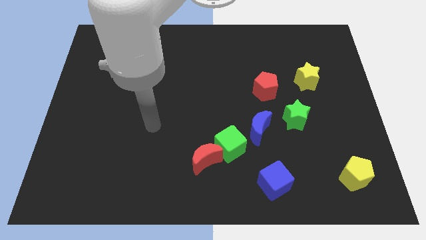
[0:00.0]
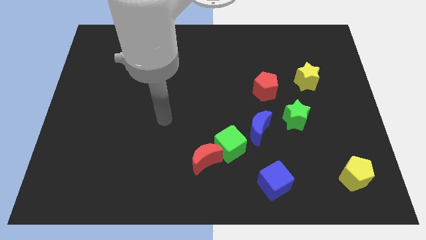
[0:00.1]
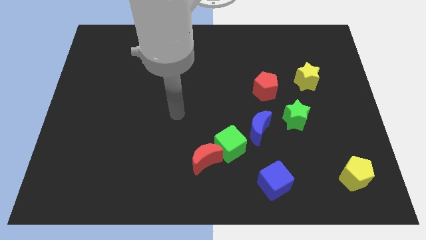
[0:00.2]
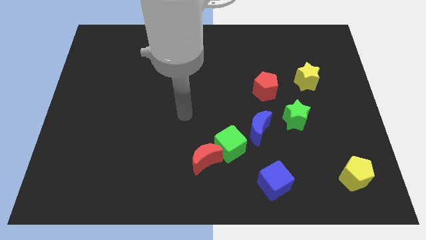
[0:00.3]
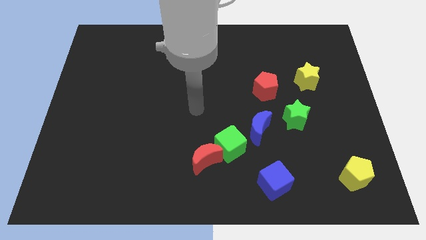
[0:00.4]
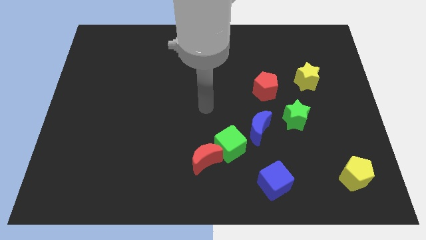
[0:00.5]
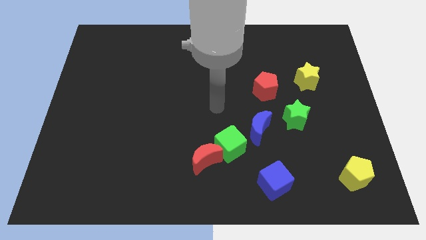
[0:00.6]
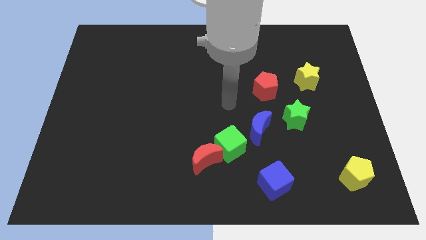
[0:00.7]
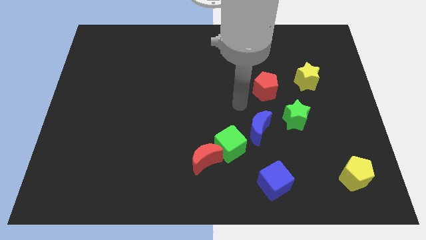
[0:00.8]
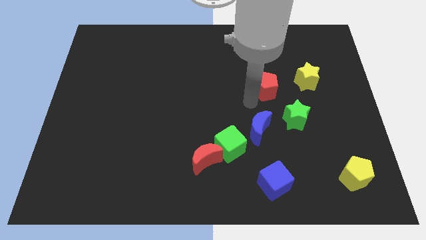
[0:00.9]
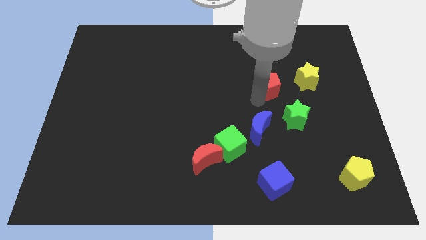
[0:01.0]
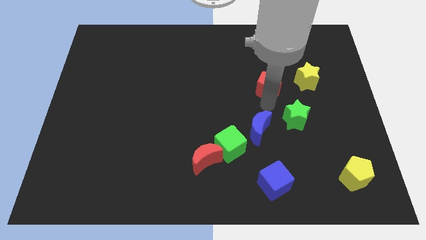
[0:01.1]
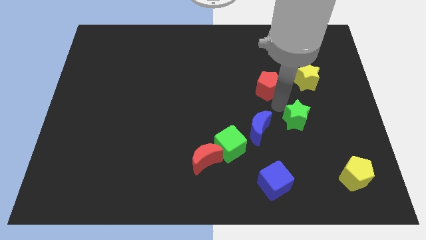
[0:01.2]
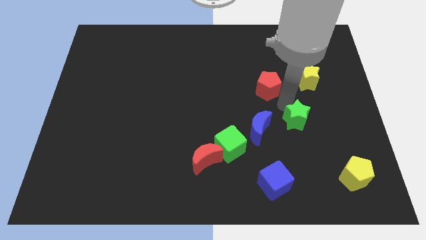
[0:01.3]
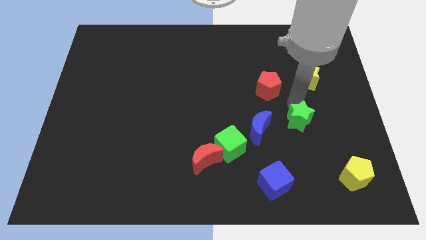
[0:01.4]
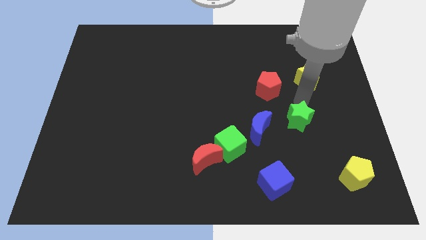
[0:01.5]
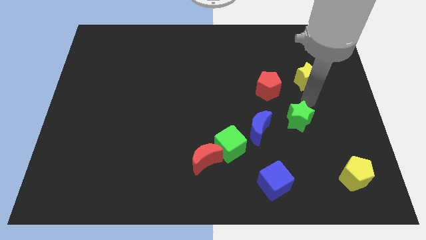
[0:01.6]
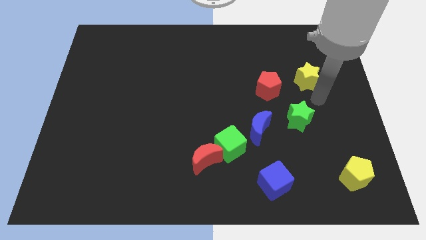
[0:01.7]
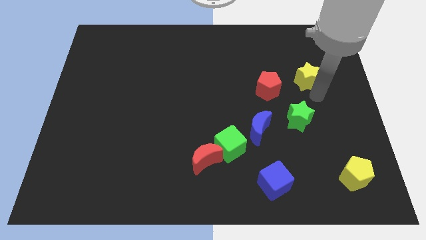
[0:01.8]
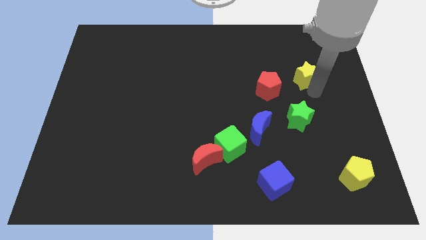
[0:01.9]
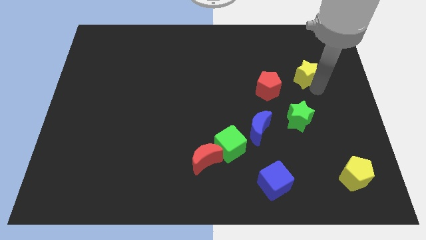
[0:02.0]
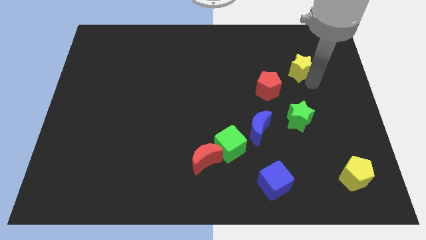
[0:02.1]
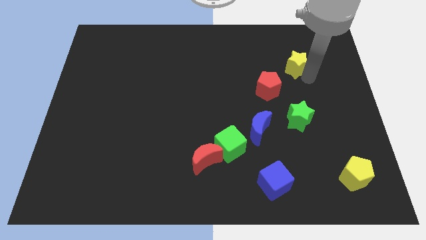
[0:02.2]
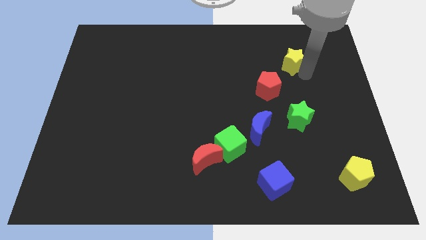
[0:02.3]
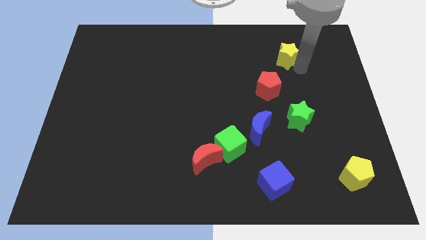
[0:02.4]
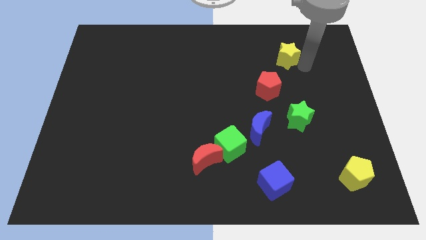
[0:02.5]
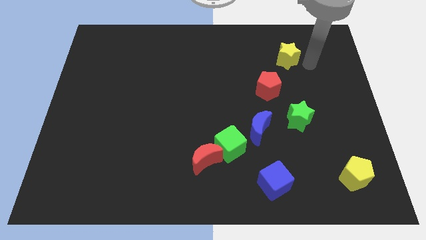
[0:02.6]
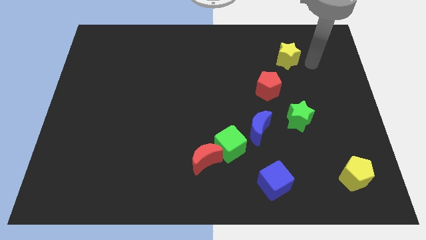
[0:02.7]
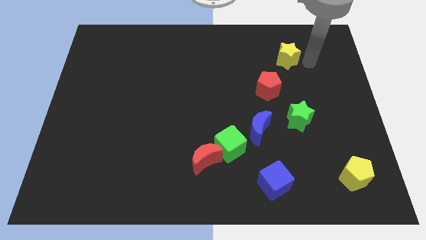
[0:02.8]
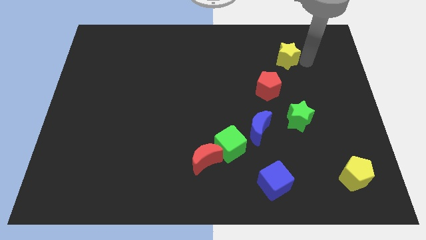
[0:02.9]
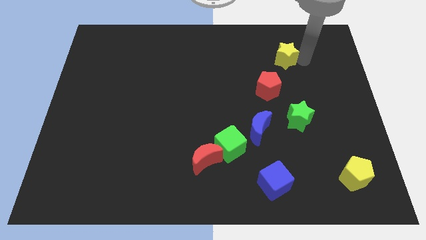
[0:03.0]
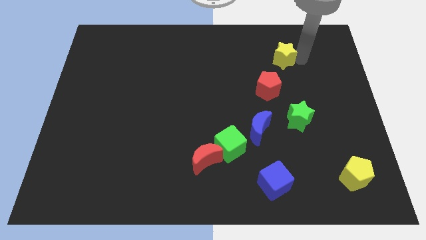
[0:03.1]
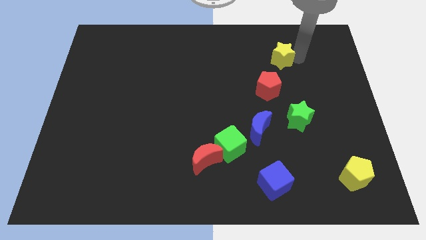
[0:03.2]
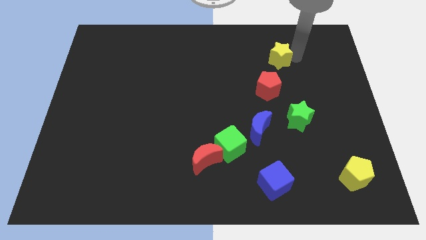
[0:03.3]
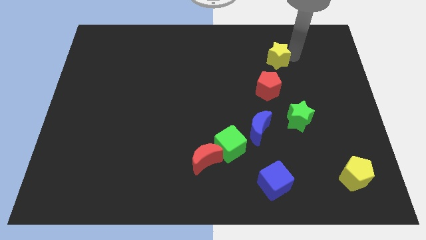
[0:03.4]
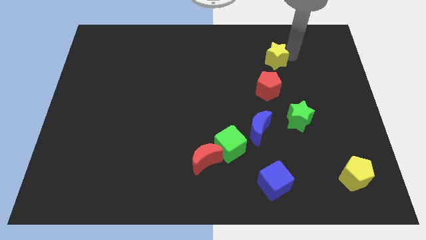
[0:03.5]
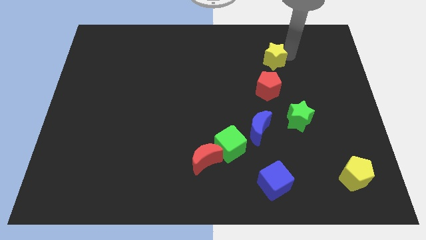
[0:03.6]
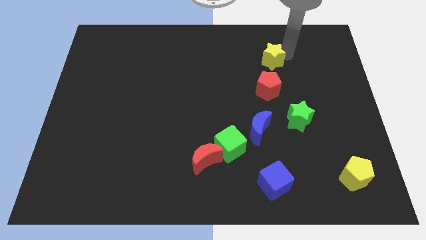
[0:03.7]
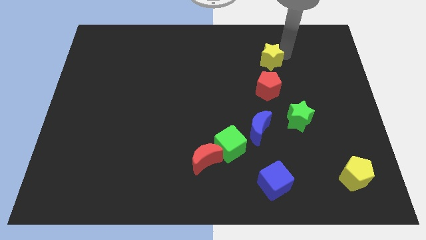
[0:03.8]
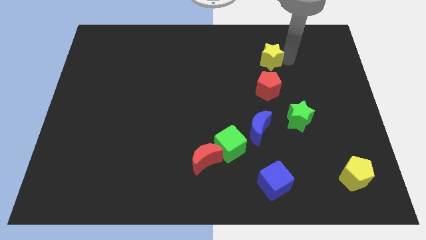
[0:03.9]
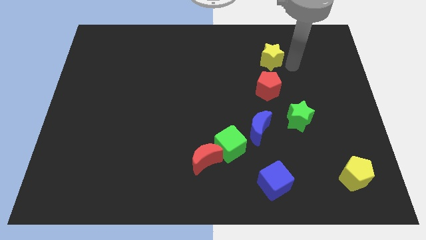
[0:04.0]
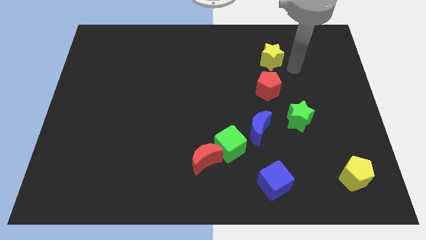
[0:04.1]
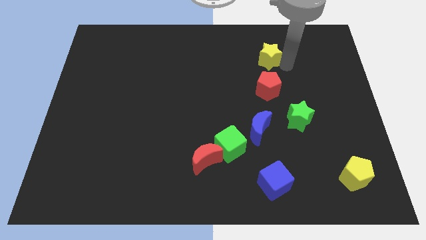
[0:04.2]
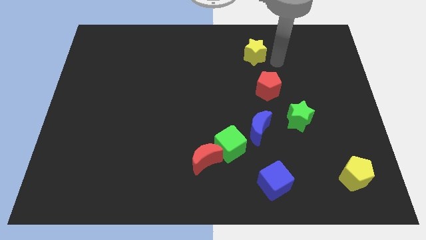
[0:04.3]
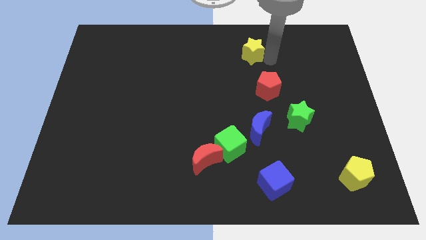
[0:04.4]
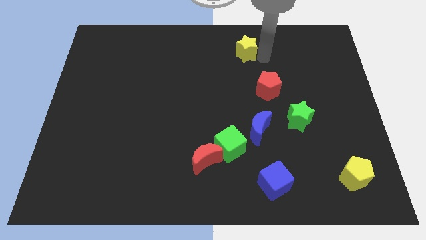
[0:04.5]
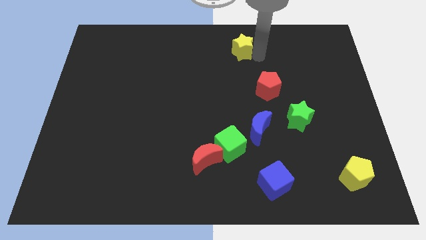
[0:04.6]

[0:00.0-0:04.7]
slide the yellow star to the top side

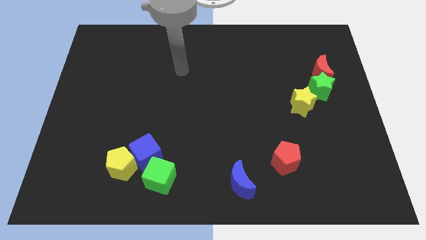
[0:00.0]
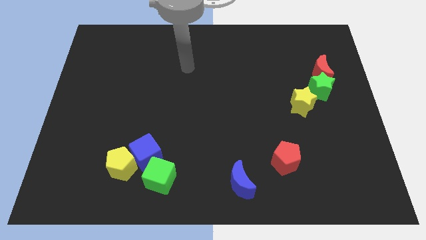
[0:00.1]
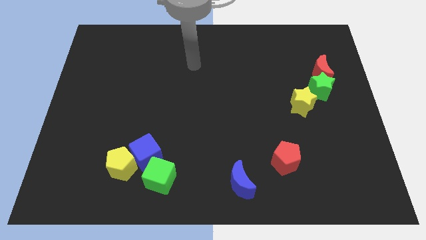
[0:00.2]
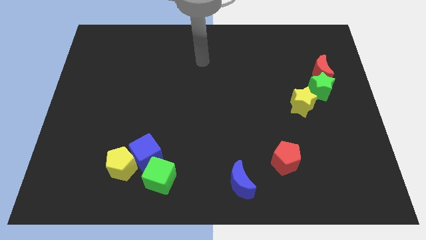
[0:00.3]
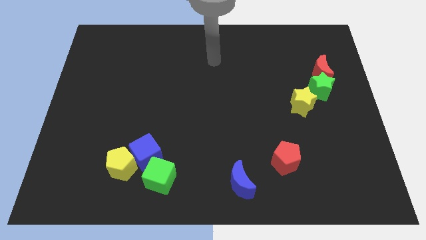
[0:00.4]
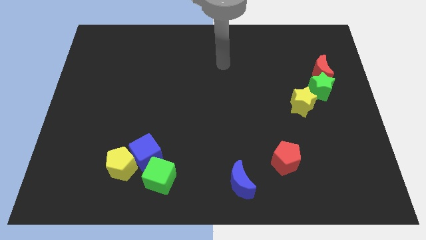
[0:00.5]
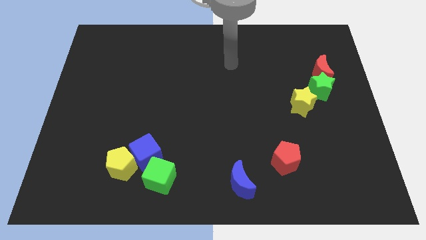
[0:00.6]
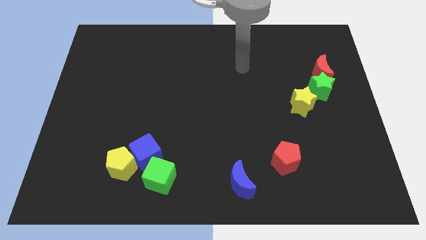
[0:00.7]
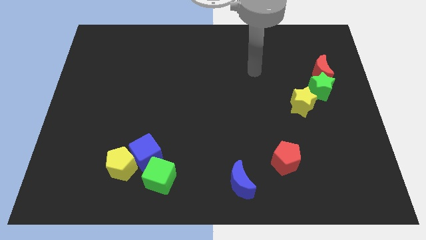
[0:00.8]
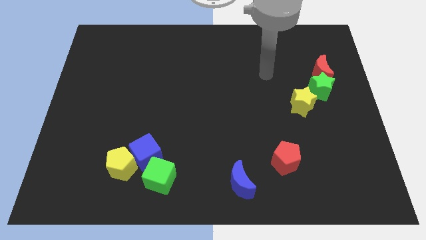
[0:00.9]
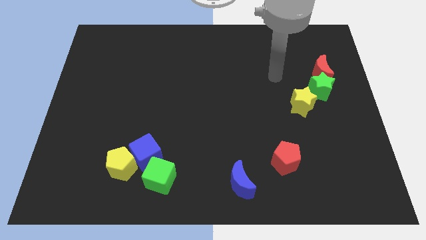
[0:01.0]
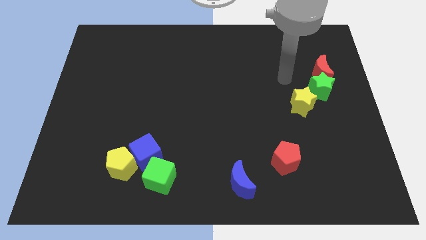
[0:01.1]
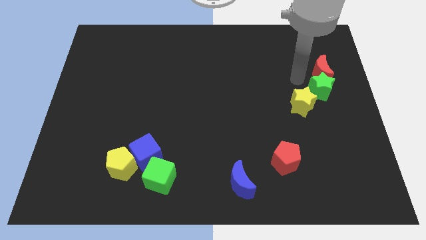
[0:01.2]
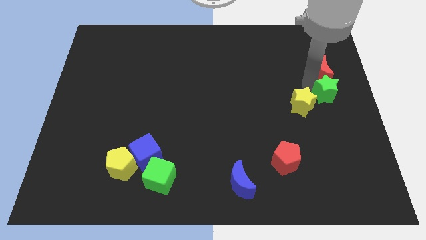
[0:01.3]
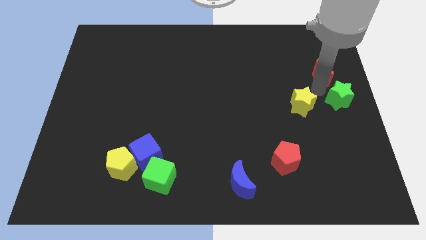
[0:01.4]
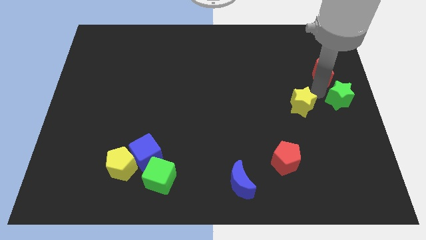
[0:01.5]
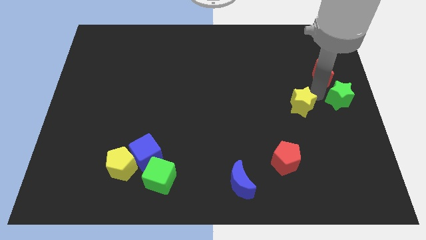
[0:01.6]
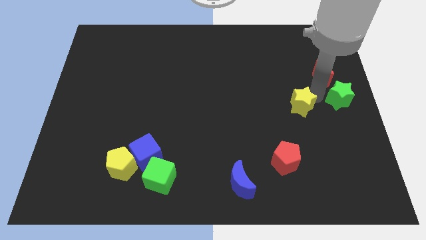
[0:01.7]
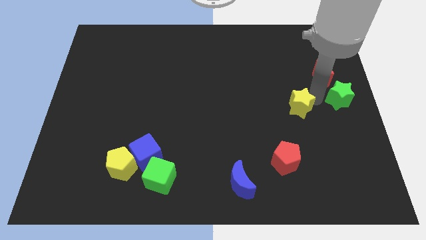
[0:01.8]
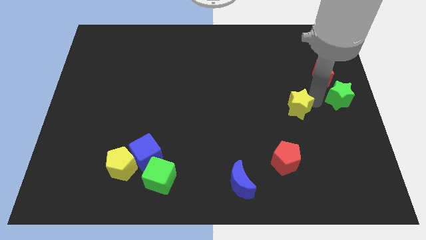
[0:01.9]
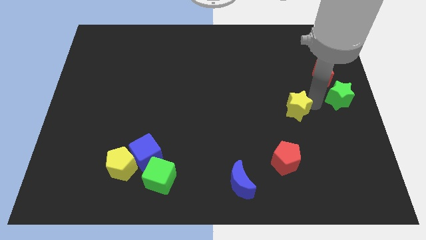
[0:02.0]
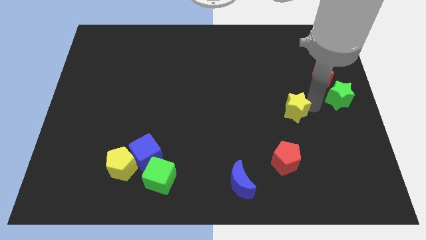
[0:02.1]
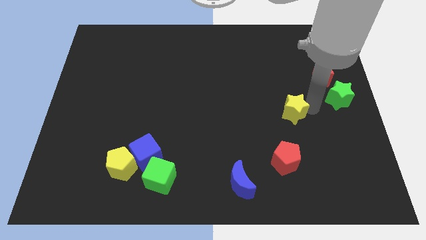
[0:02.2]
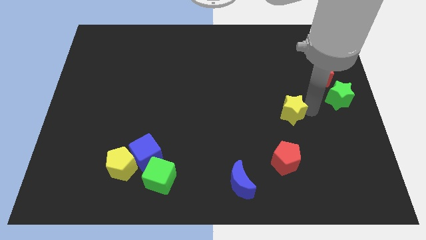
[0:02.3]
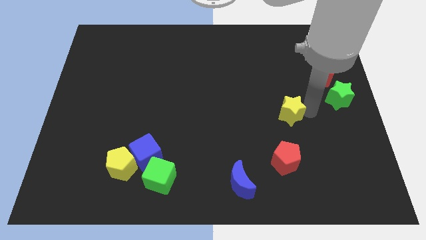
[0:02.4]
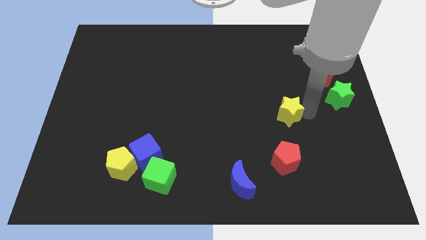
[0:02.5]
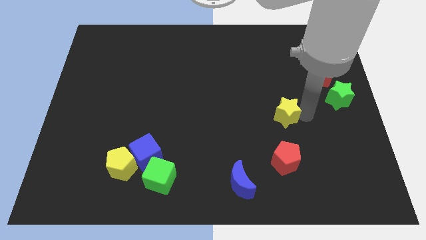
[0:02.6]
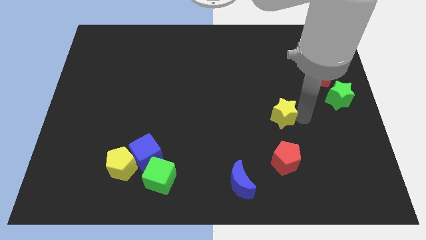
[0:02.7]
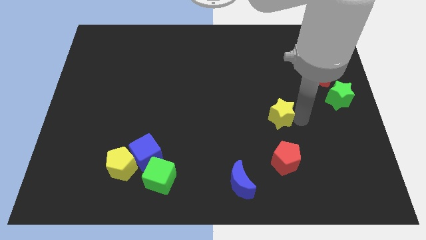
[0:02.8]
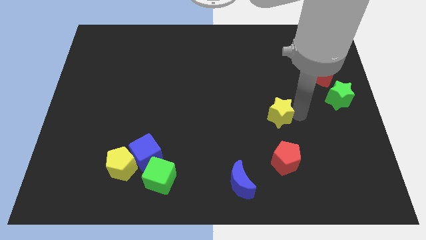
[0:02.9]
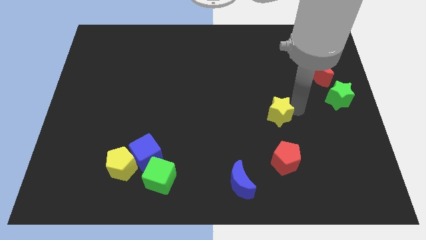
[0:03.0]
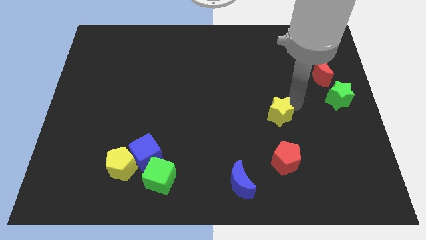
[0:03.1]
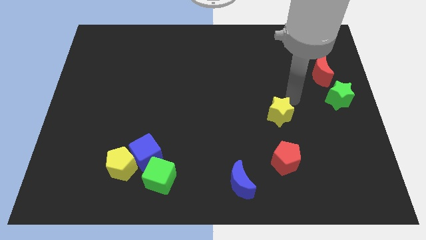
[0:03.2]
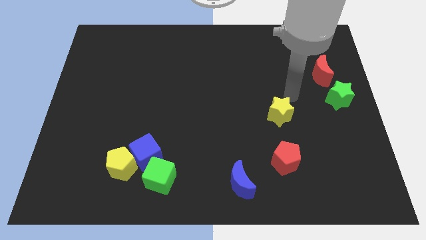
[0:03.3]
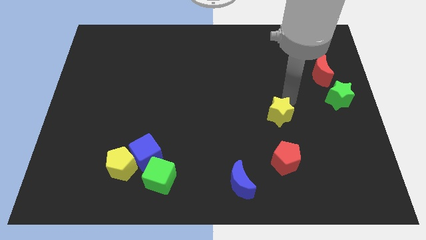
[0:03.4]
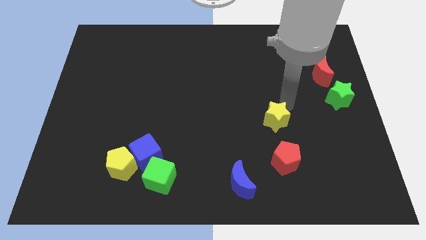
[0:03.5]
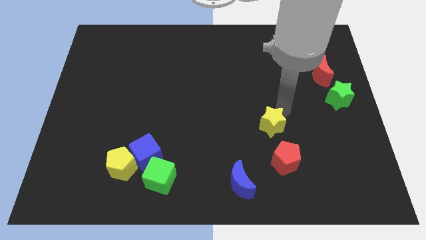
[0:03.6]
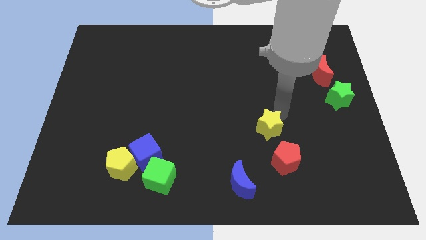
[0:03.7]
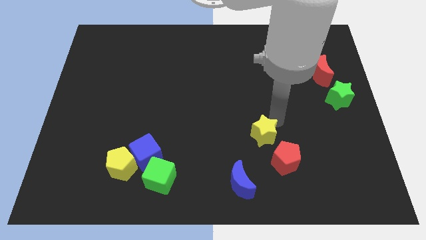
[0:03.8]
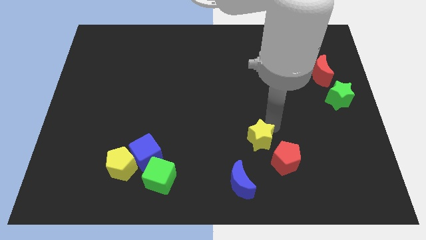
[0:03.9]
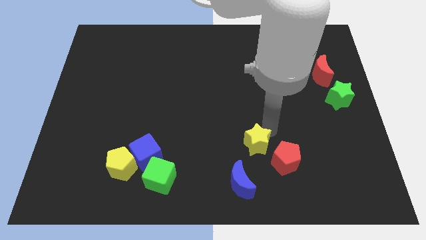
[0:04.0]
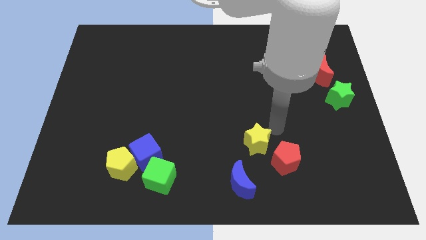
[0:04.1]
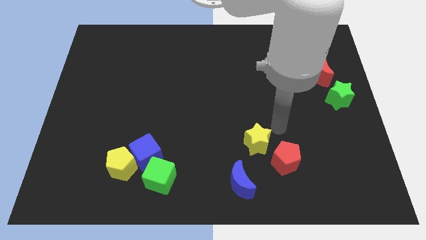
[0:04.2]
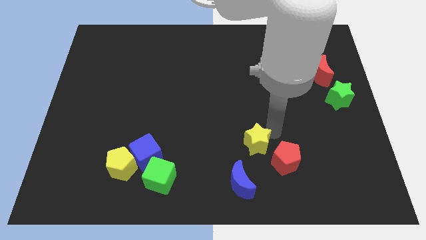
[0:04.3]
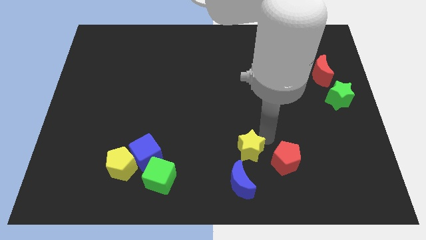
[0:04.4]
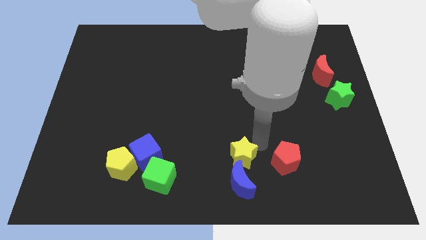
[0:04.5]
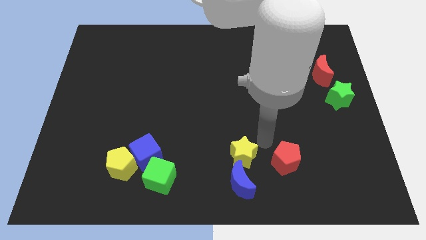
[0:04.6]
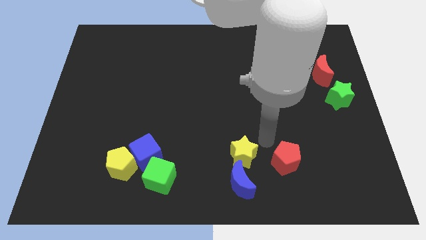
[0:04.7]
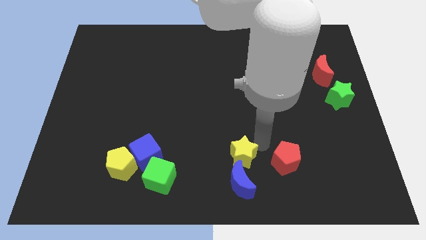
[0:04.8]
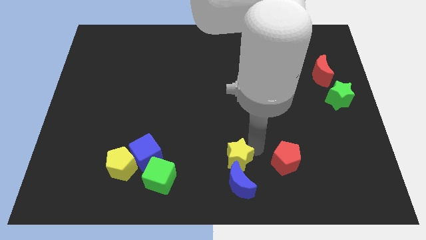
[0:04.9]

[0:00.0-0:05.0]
move the yellow star to the bottom side
